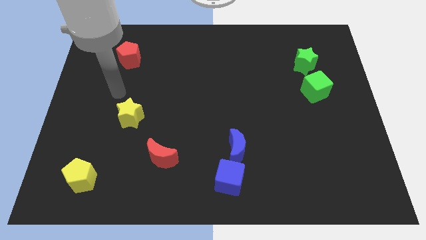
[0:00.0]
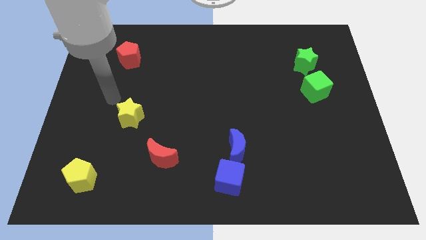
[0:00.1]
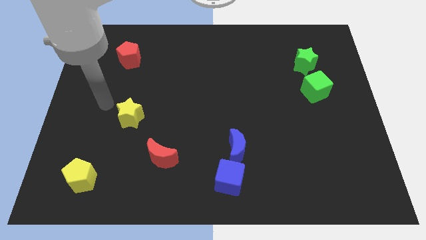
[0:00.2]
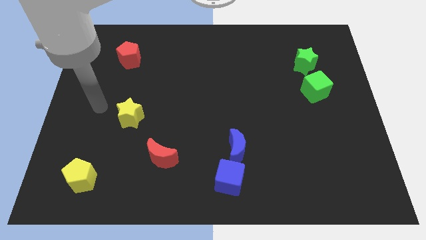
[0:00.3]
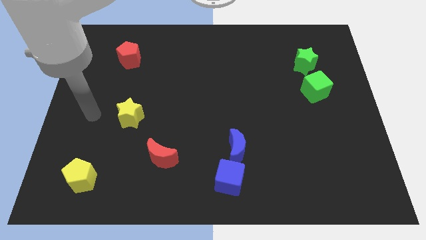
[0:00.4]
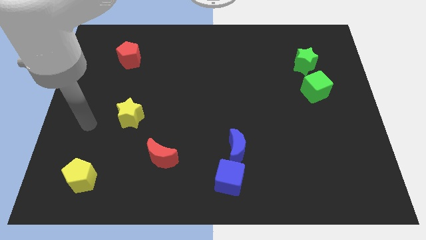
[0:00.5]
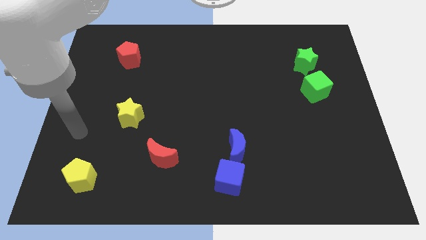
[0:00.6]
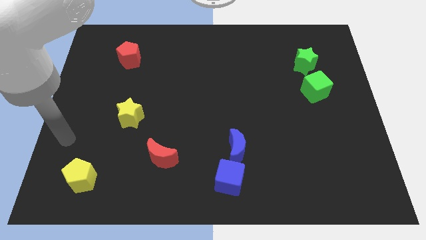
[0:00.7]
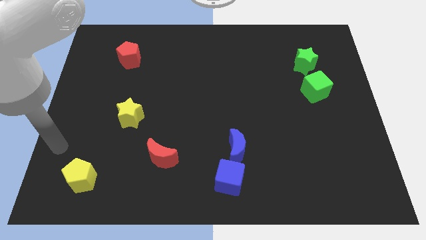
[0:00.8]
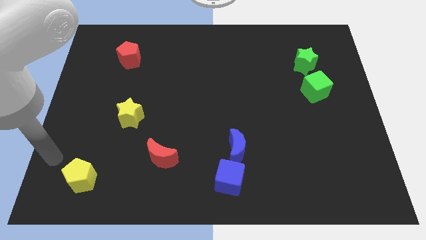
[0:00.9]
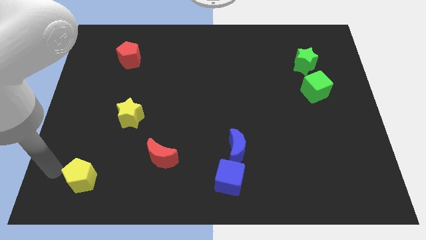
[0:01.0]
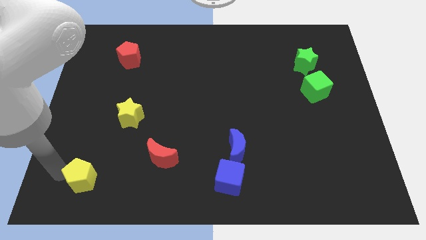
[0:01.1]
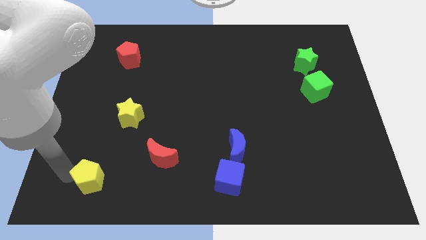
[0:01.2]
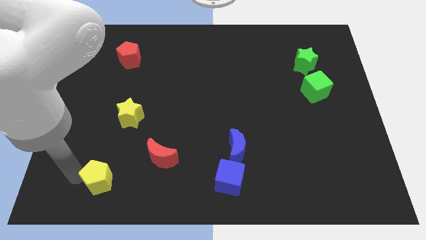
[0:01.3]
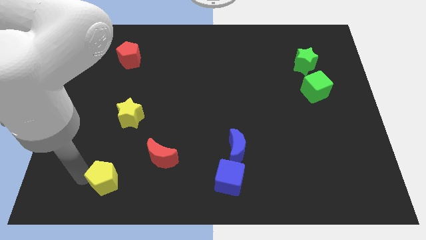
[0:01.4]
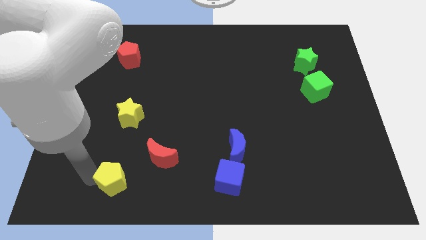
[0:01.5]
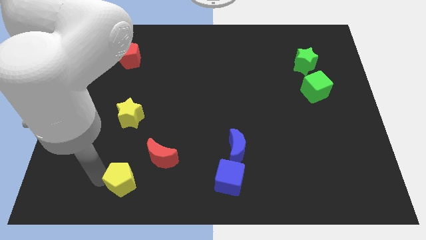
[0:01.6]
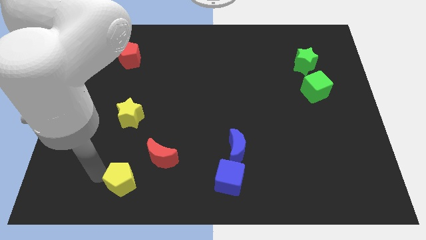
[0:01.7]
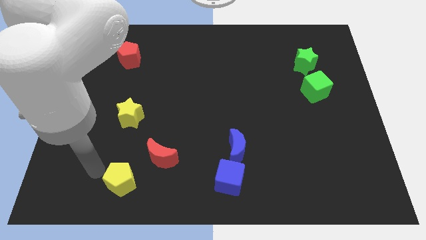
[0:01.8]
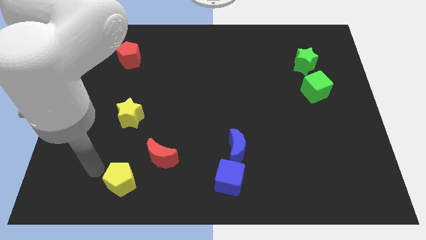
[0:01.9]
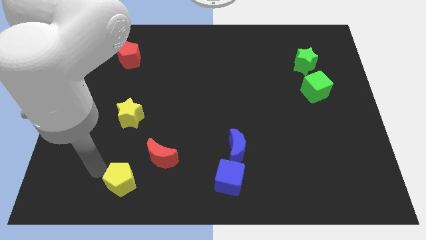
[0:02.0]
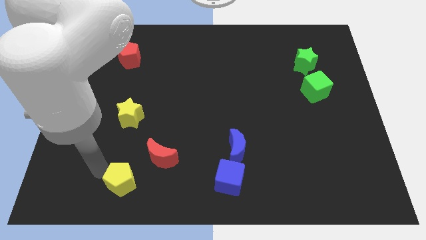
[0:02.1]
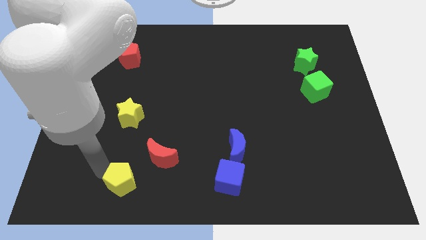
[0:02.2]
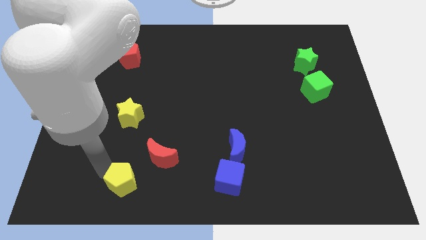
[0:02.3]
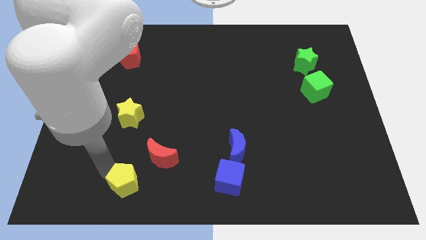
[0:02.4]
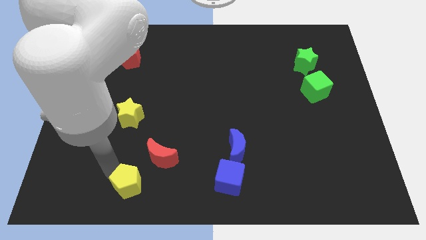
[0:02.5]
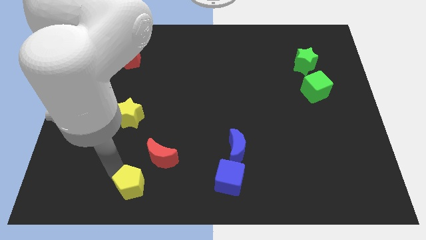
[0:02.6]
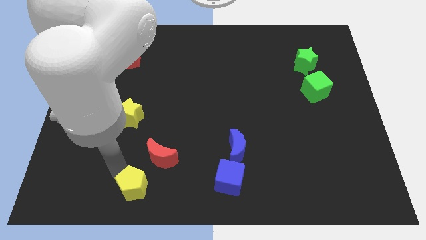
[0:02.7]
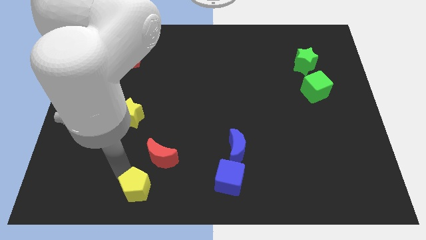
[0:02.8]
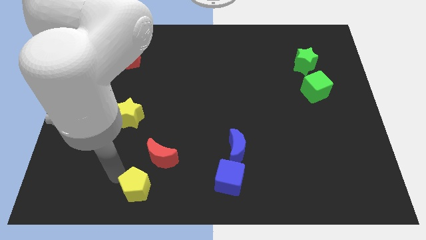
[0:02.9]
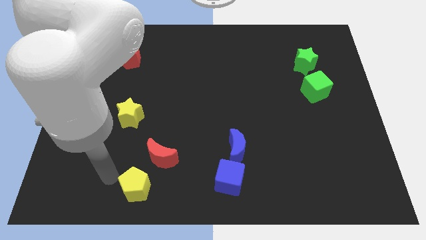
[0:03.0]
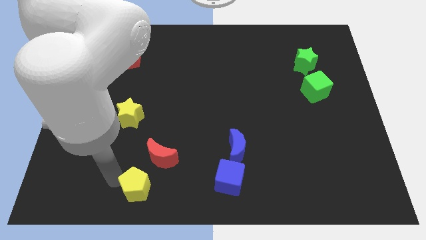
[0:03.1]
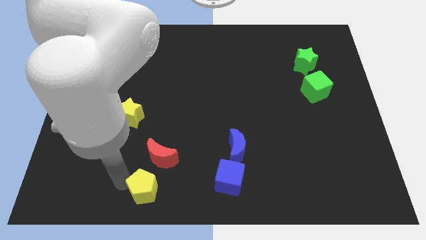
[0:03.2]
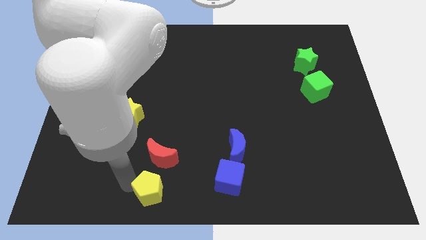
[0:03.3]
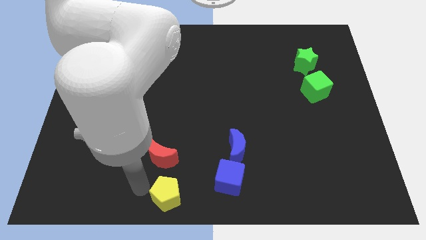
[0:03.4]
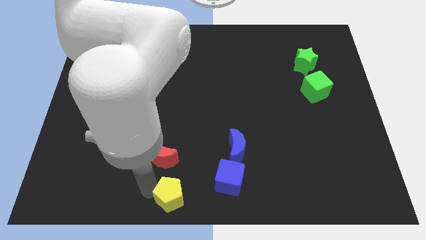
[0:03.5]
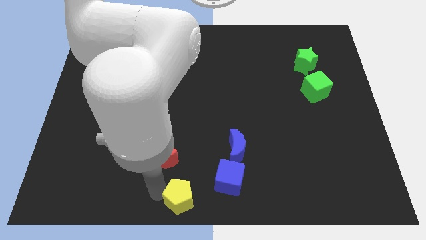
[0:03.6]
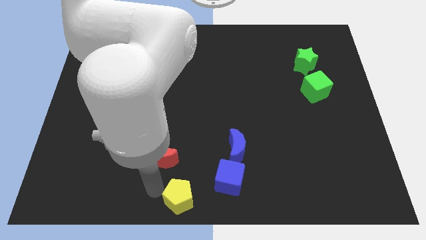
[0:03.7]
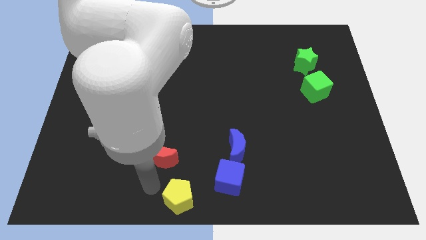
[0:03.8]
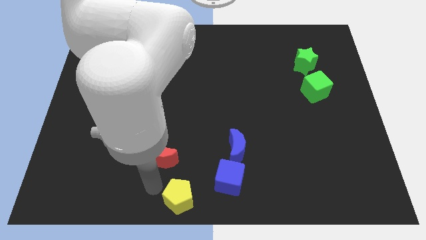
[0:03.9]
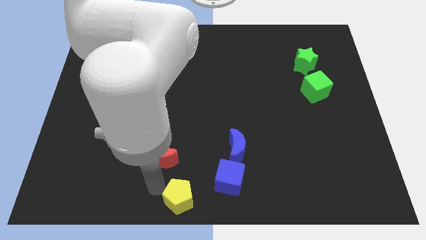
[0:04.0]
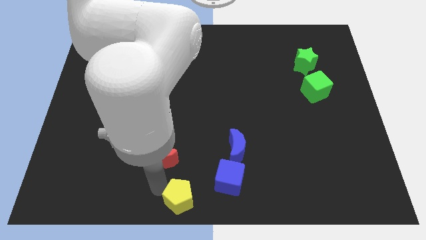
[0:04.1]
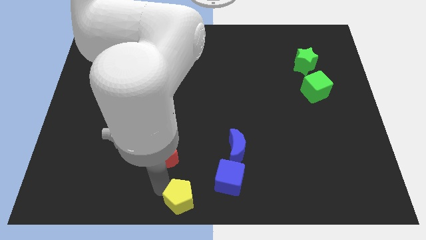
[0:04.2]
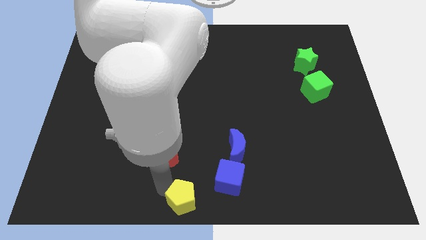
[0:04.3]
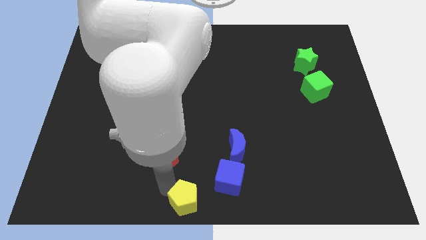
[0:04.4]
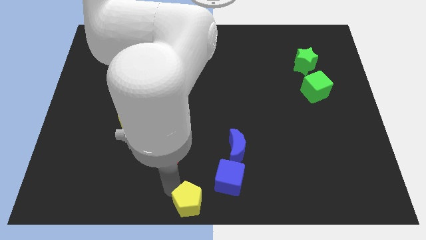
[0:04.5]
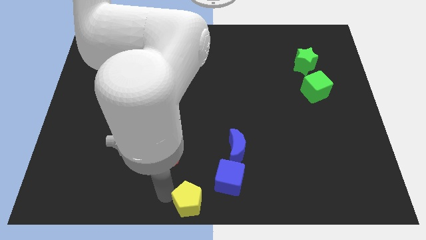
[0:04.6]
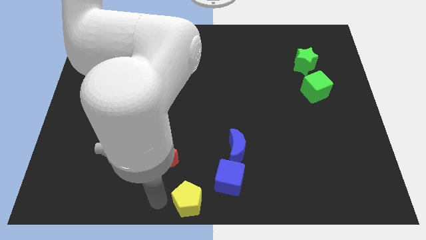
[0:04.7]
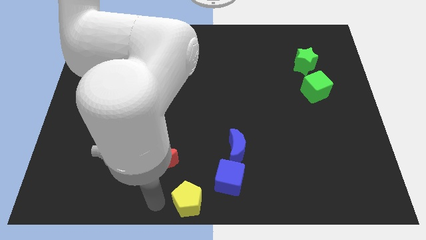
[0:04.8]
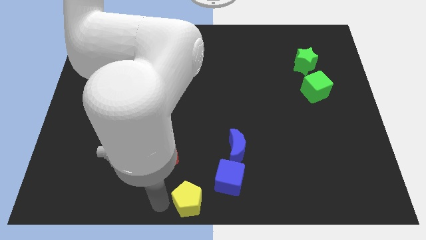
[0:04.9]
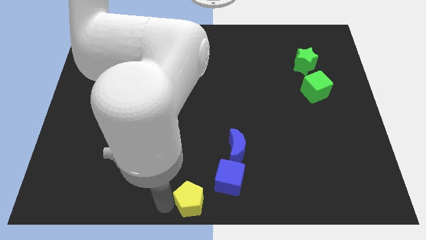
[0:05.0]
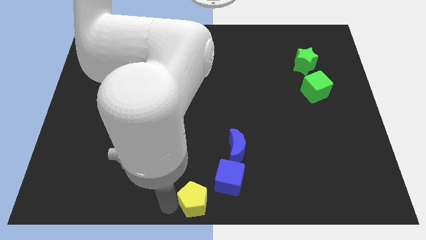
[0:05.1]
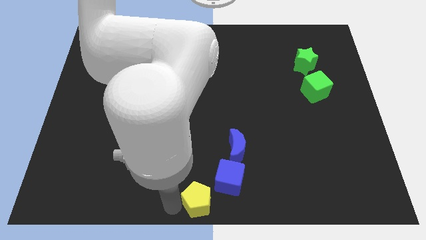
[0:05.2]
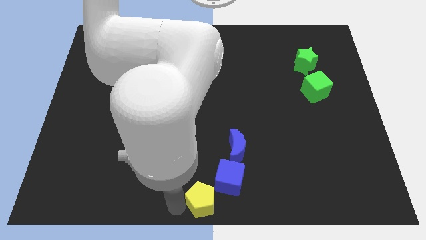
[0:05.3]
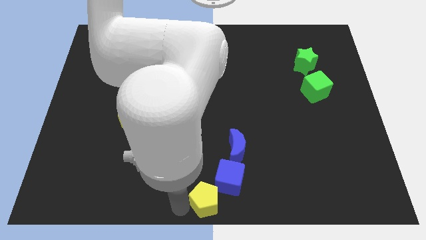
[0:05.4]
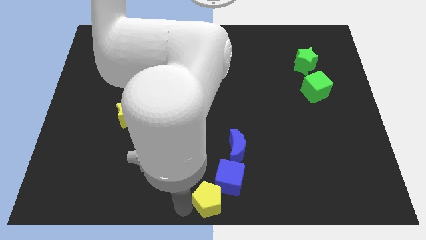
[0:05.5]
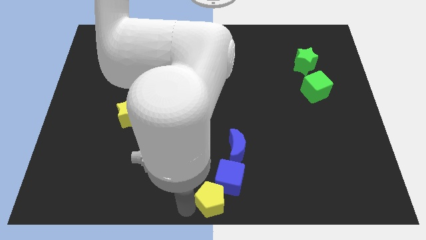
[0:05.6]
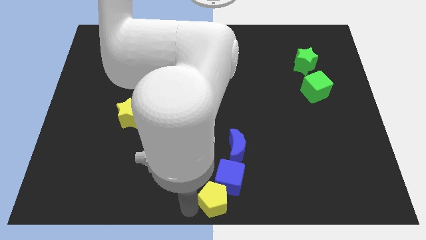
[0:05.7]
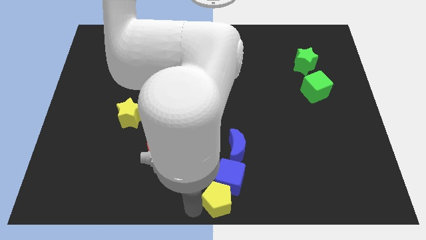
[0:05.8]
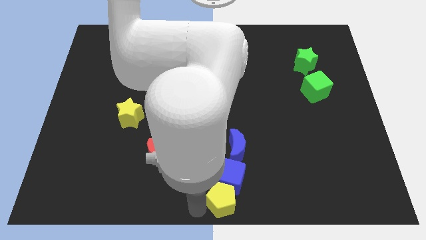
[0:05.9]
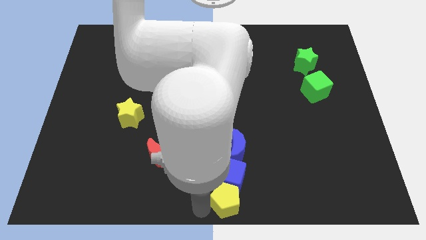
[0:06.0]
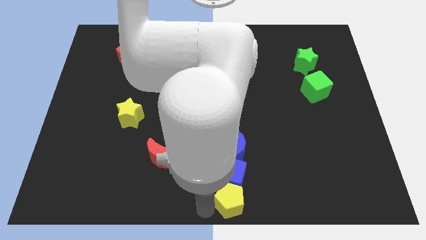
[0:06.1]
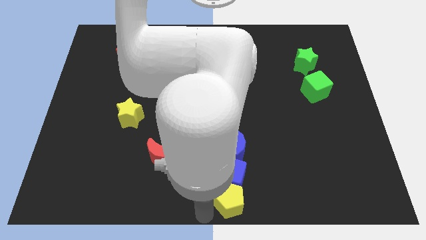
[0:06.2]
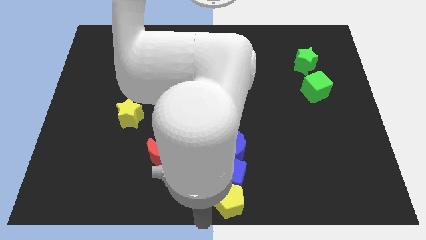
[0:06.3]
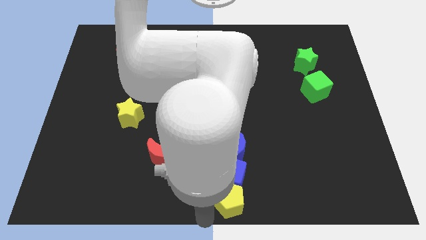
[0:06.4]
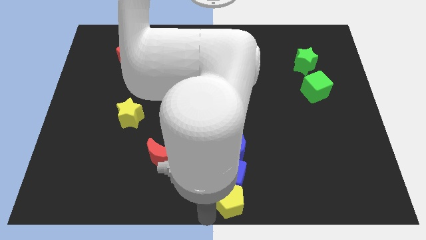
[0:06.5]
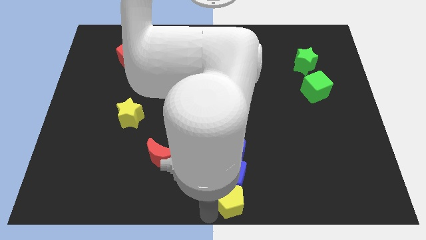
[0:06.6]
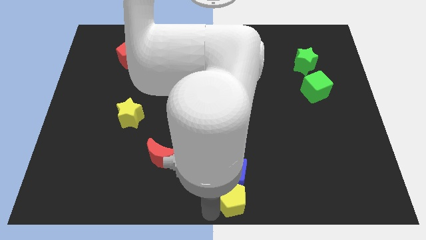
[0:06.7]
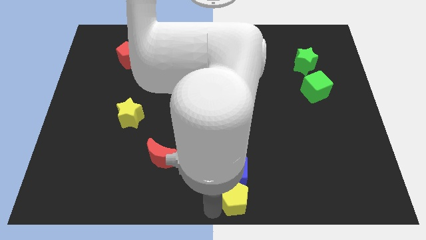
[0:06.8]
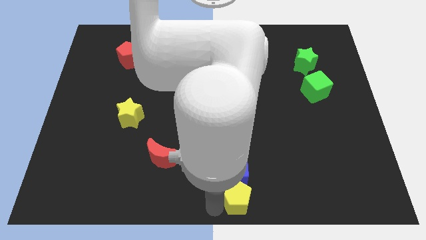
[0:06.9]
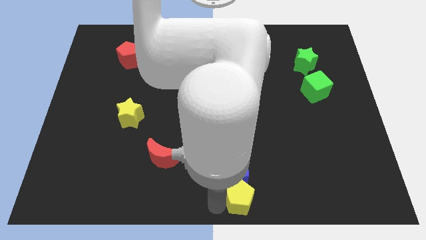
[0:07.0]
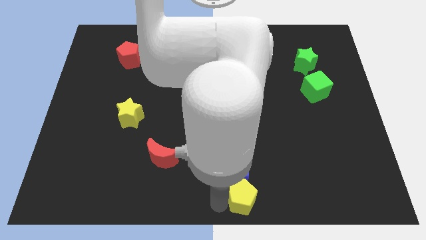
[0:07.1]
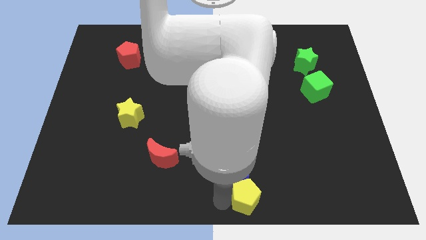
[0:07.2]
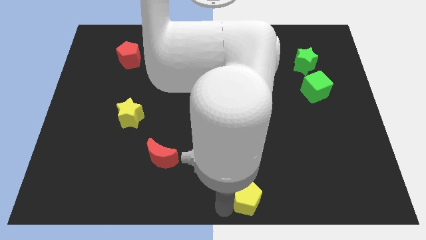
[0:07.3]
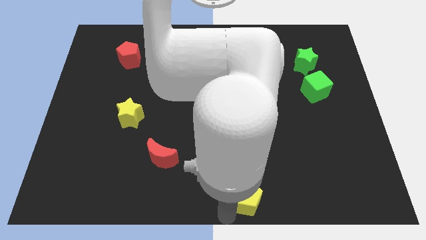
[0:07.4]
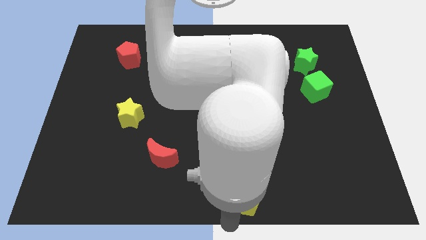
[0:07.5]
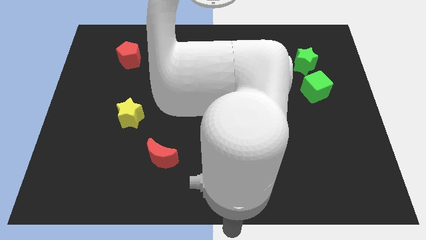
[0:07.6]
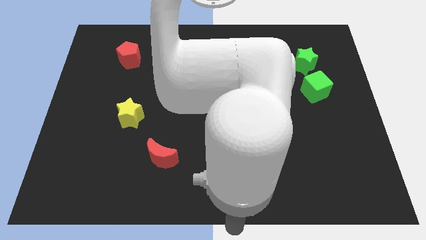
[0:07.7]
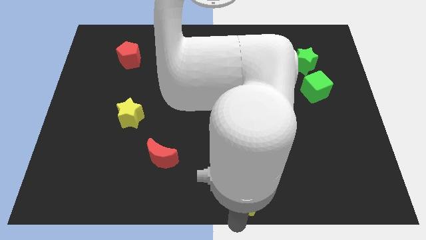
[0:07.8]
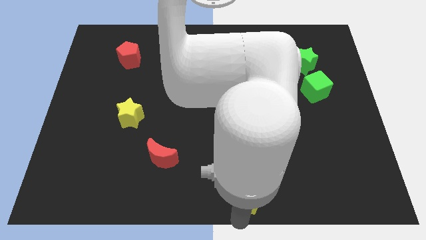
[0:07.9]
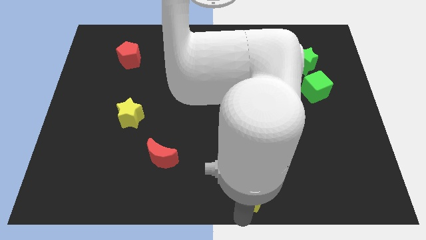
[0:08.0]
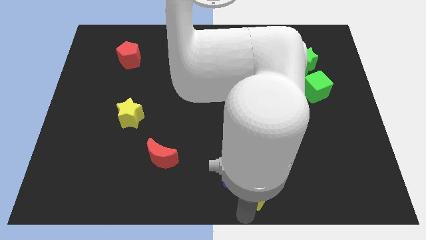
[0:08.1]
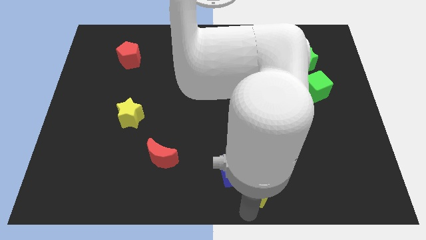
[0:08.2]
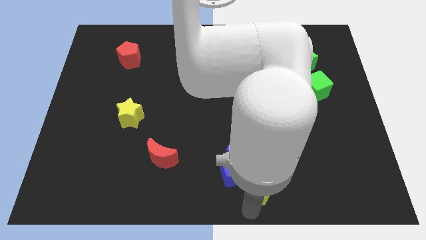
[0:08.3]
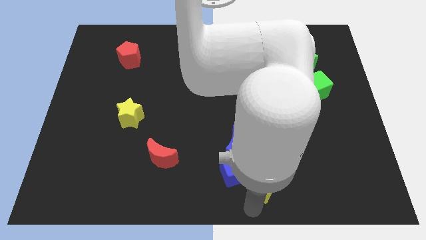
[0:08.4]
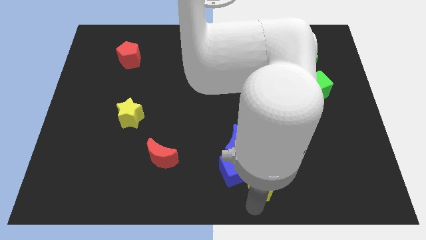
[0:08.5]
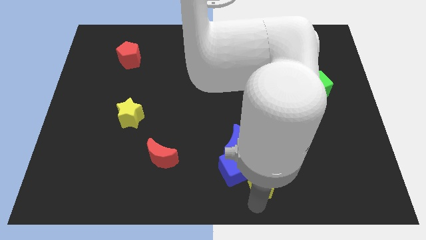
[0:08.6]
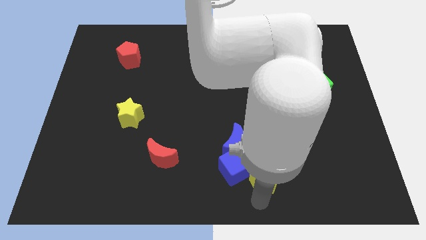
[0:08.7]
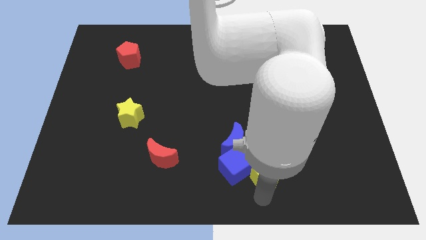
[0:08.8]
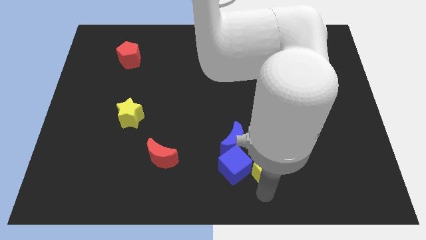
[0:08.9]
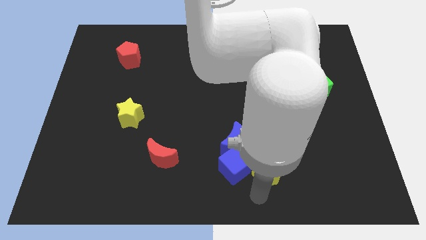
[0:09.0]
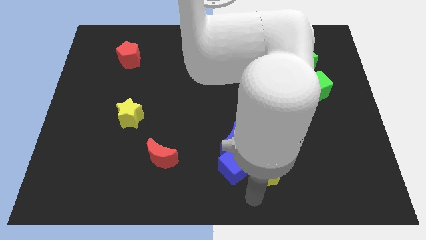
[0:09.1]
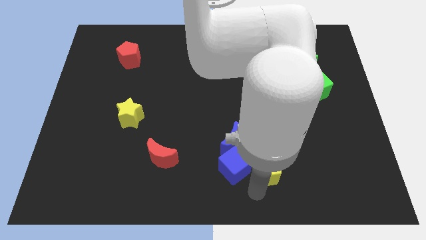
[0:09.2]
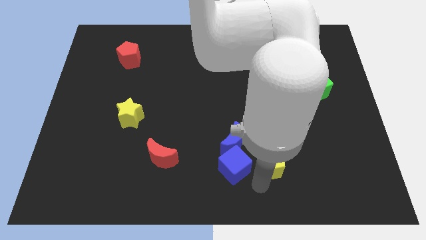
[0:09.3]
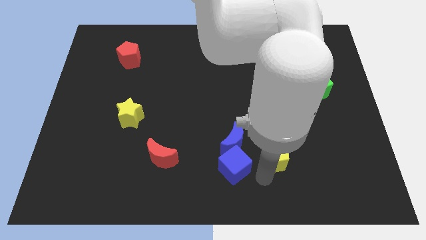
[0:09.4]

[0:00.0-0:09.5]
push the yellow pentagon right of the blue moon
